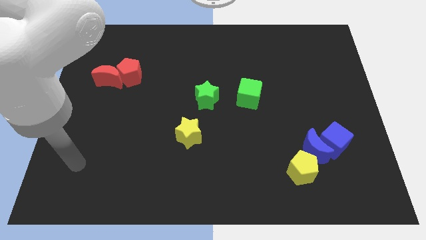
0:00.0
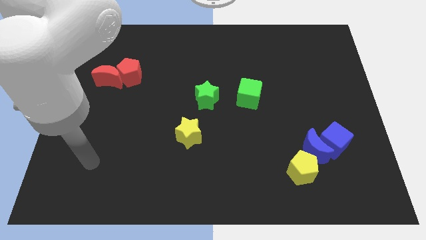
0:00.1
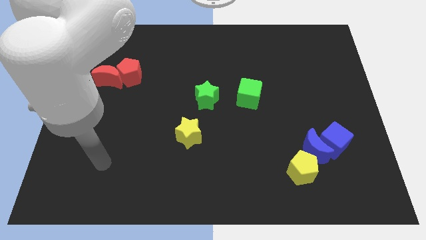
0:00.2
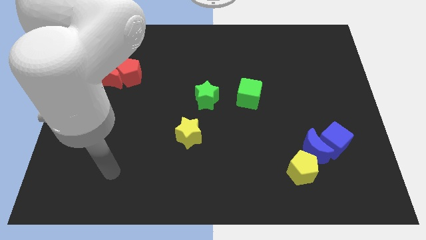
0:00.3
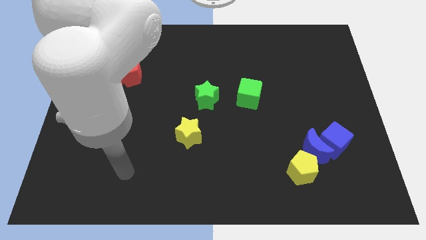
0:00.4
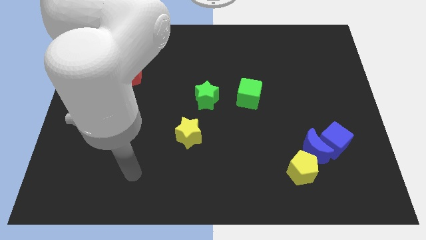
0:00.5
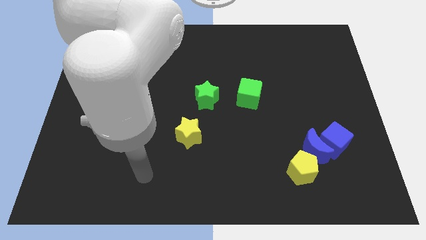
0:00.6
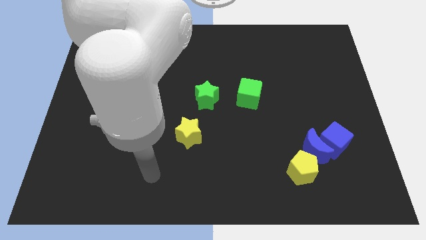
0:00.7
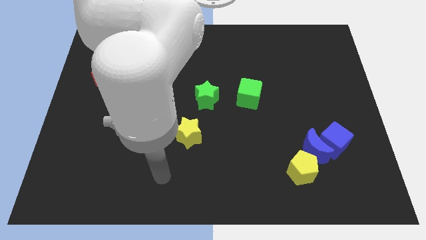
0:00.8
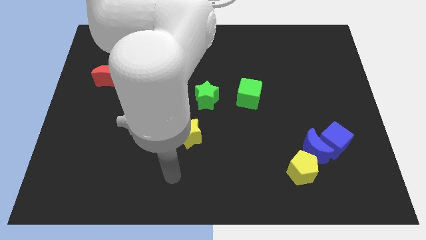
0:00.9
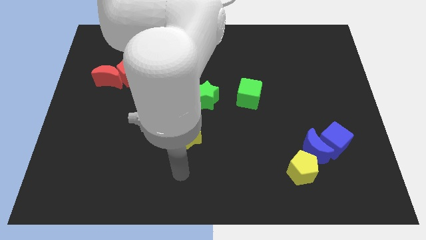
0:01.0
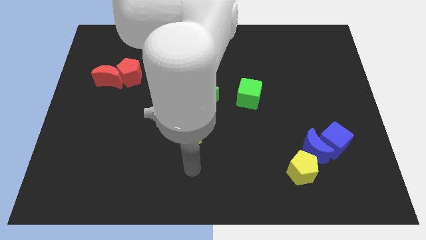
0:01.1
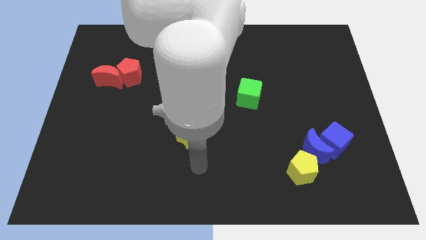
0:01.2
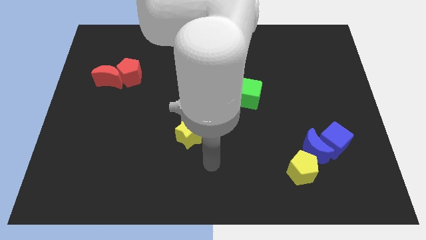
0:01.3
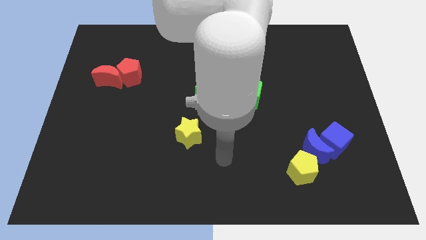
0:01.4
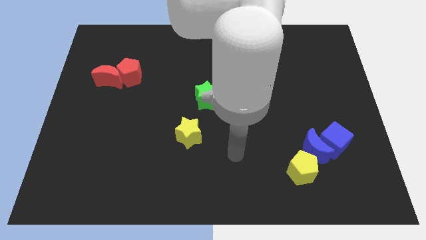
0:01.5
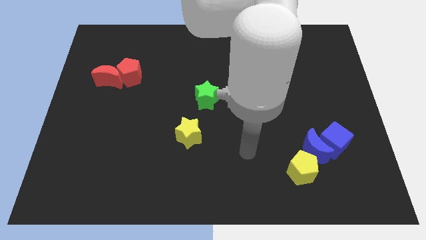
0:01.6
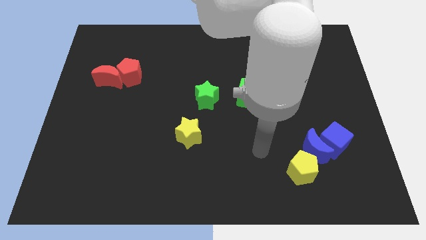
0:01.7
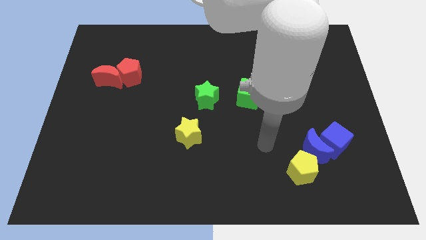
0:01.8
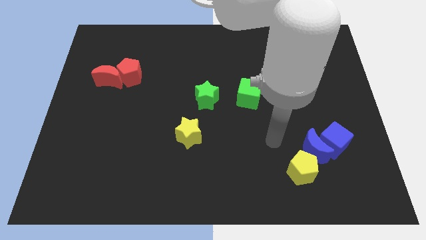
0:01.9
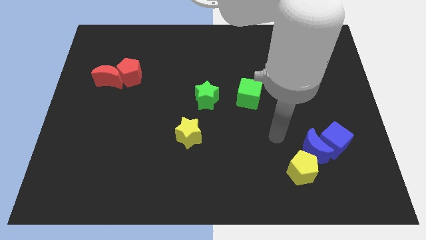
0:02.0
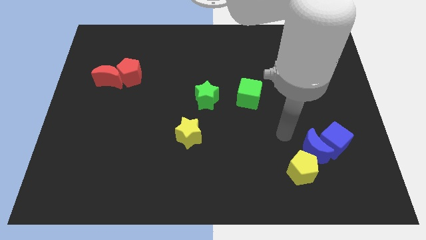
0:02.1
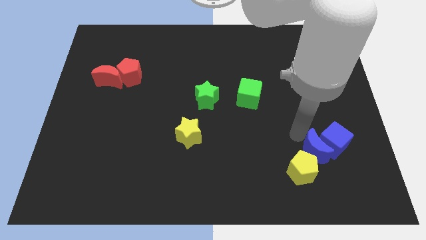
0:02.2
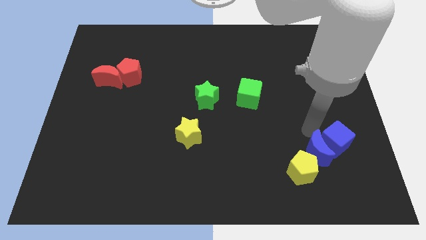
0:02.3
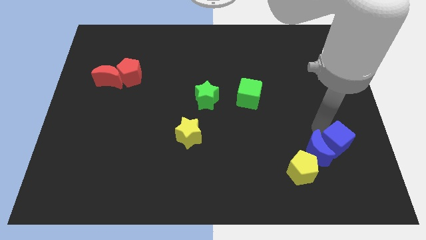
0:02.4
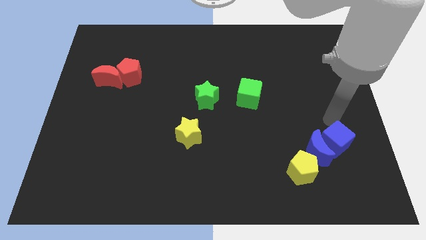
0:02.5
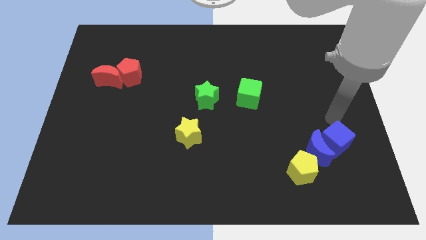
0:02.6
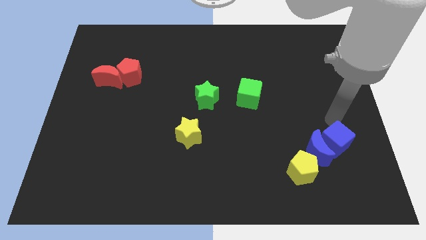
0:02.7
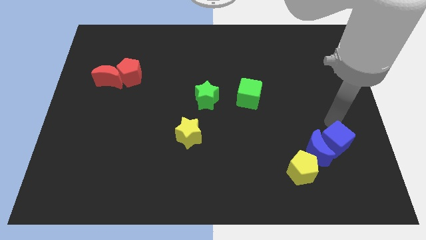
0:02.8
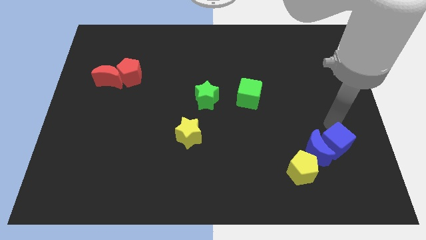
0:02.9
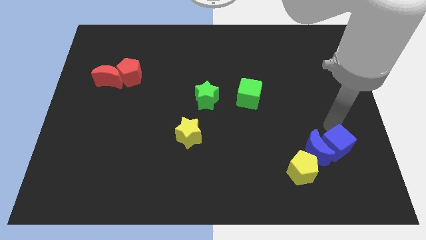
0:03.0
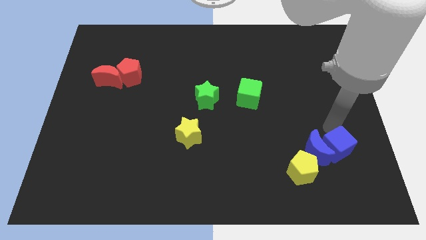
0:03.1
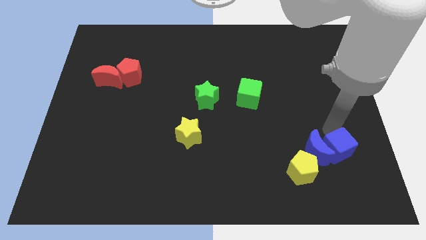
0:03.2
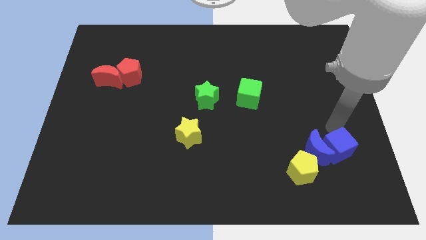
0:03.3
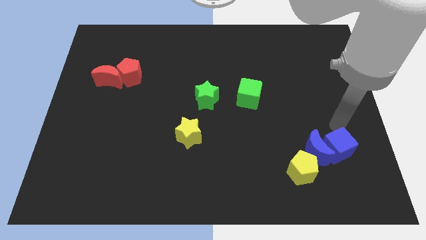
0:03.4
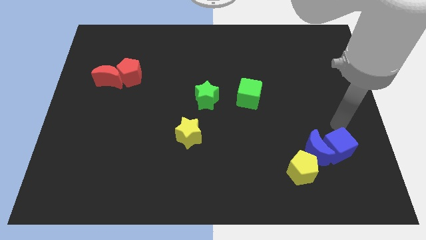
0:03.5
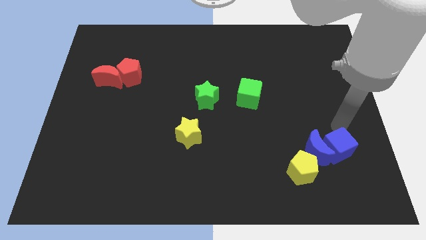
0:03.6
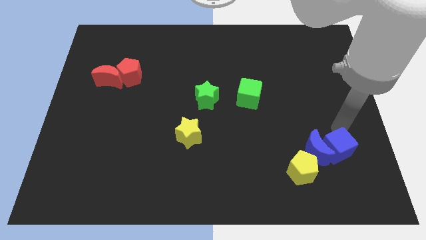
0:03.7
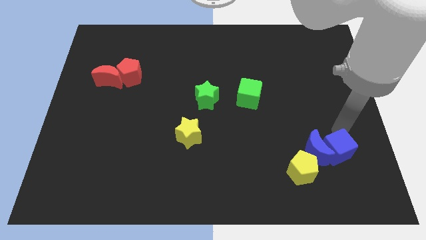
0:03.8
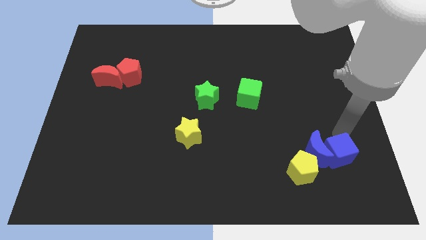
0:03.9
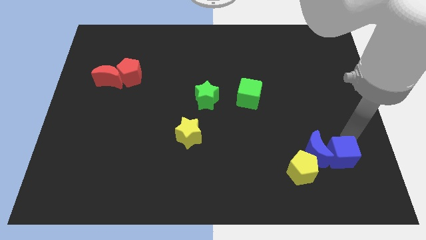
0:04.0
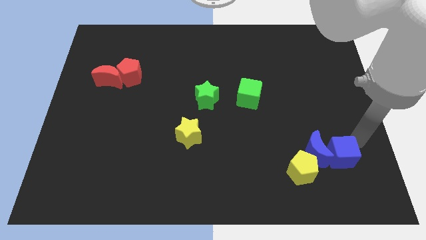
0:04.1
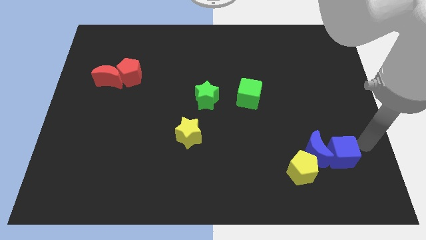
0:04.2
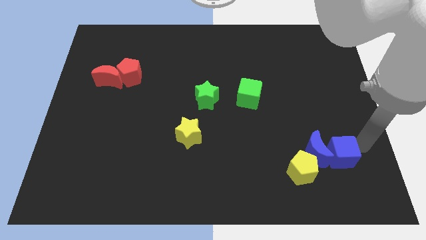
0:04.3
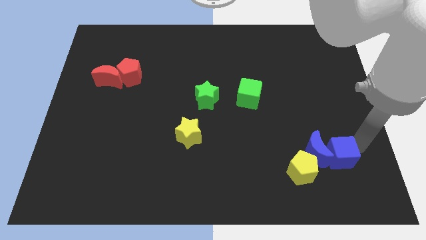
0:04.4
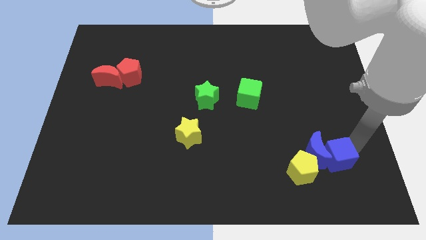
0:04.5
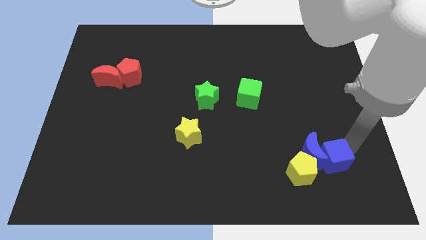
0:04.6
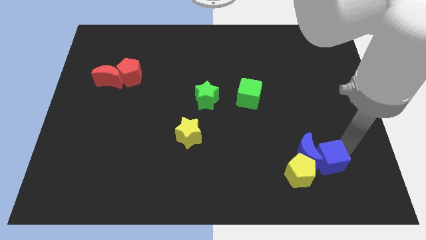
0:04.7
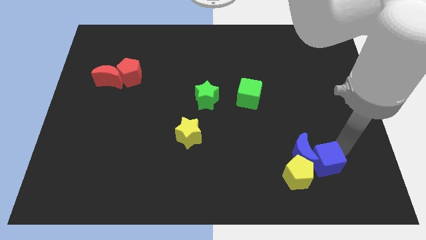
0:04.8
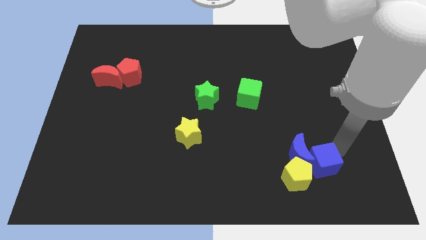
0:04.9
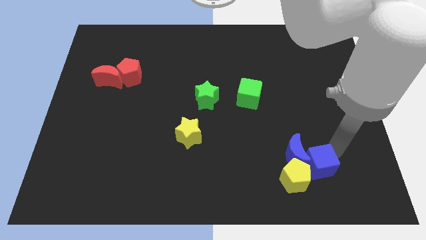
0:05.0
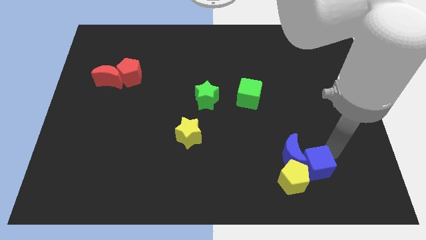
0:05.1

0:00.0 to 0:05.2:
slide the blue cube next to the yellow pentagon

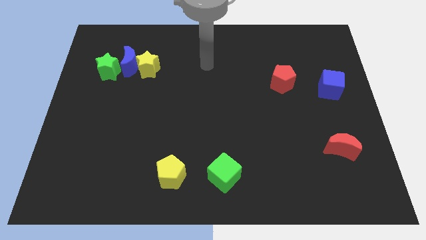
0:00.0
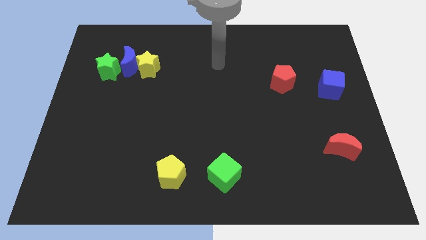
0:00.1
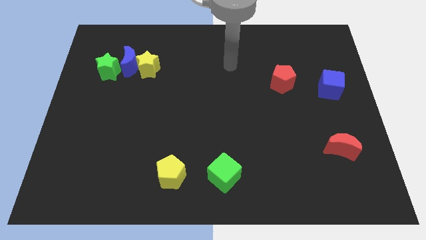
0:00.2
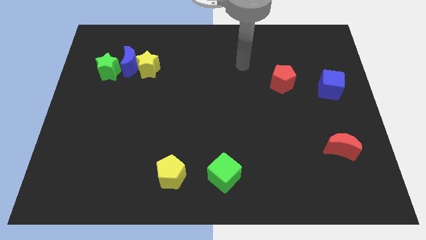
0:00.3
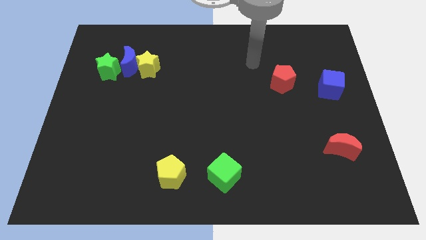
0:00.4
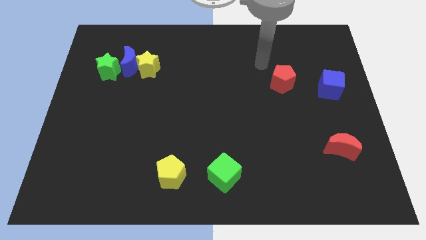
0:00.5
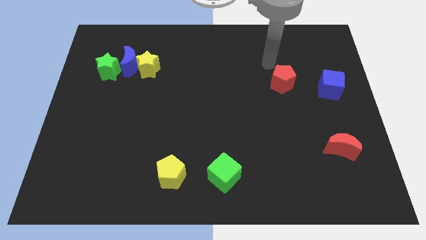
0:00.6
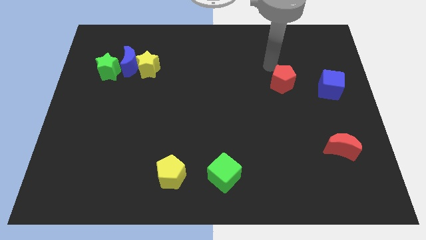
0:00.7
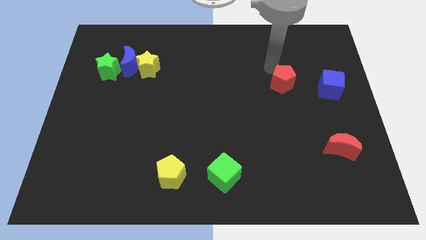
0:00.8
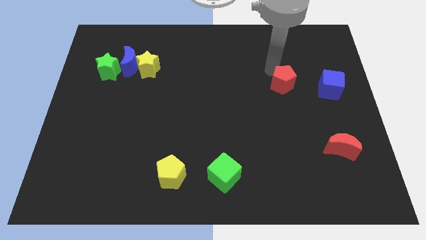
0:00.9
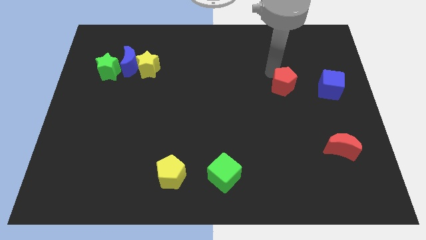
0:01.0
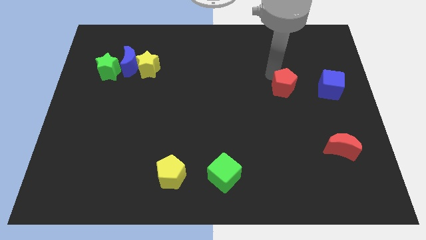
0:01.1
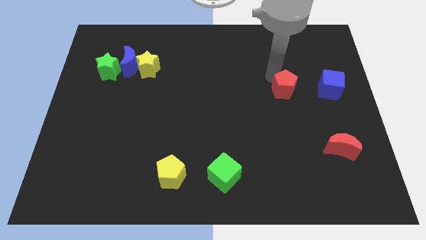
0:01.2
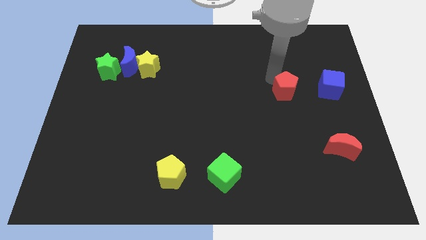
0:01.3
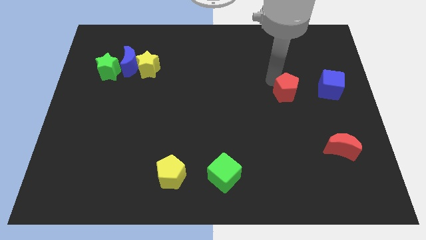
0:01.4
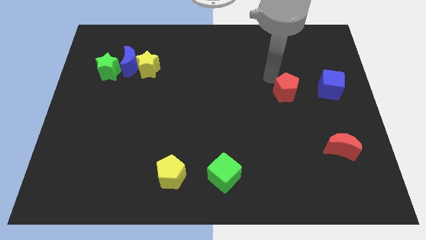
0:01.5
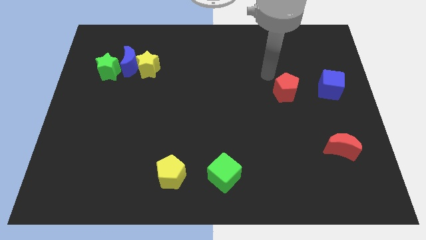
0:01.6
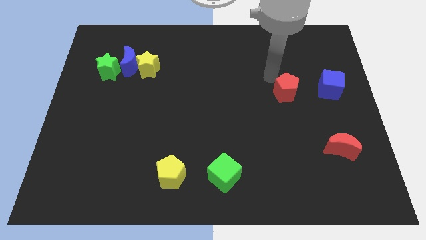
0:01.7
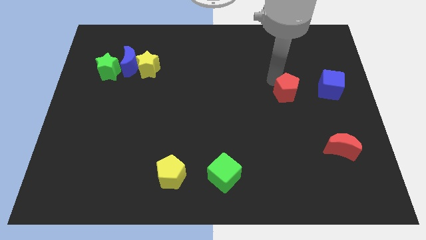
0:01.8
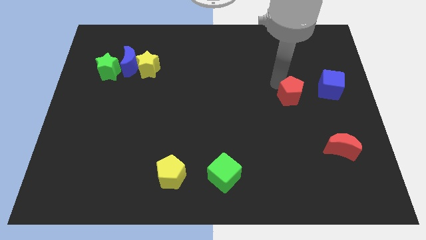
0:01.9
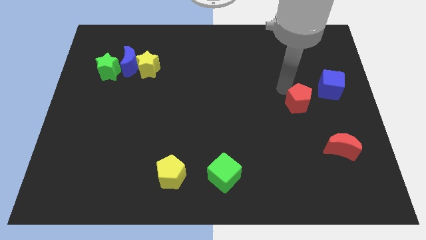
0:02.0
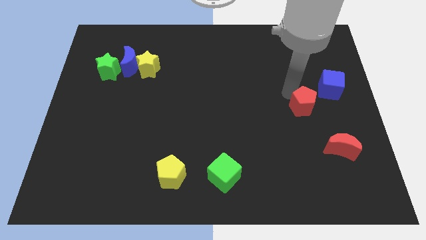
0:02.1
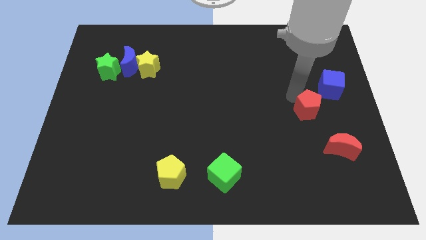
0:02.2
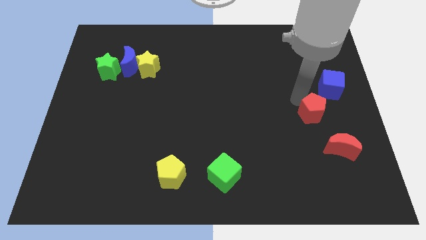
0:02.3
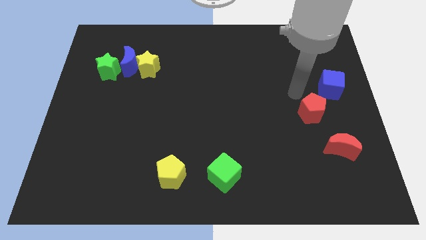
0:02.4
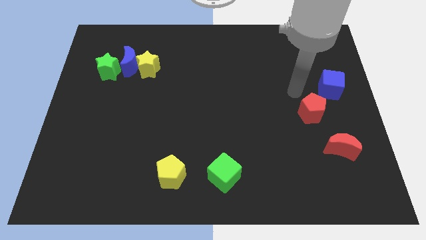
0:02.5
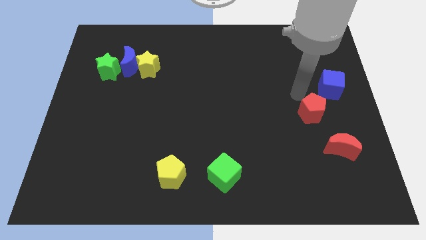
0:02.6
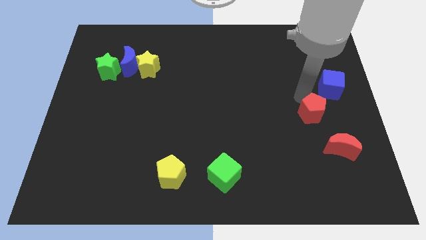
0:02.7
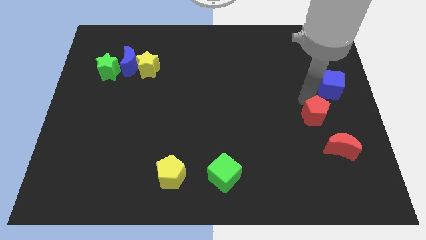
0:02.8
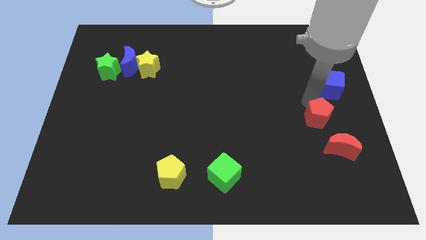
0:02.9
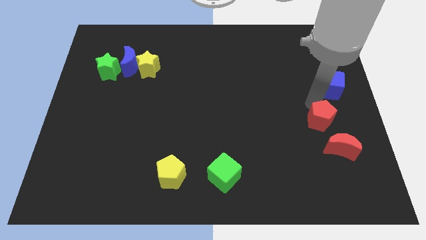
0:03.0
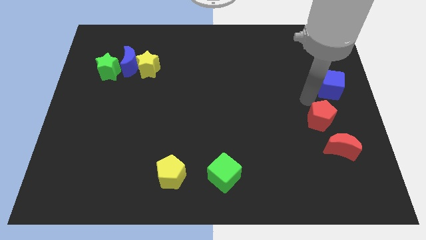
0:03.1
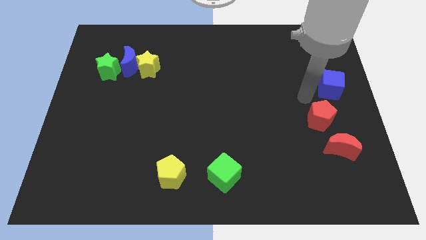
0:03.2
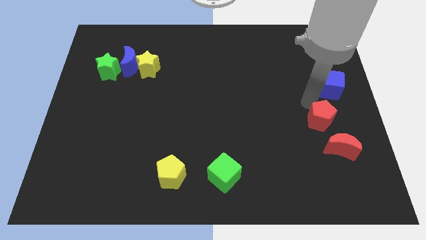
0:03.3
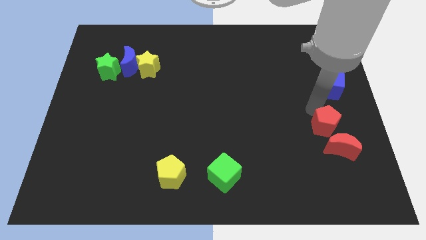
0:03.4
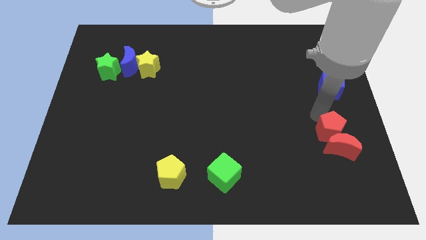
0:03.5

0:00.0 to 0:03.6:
put the red pentagon towards the red moon
